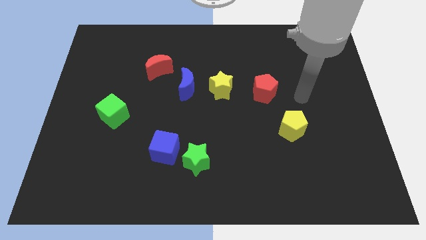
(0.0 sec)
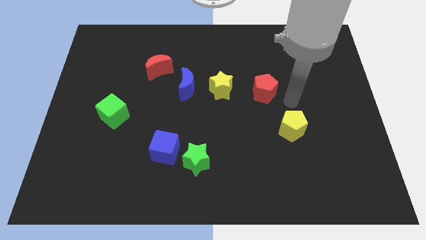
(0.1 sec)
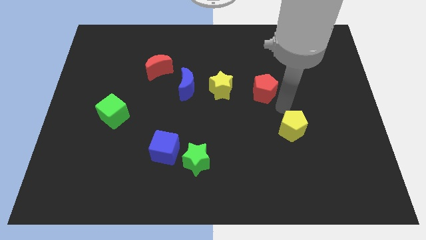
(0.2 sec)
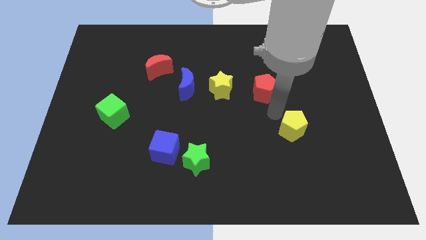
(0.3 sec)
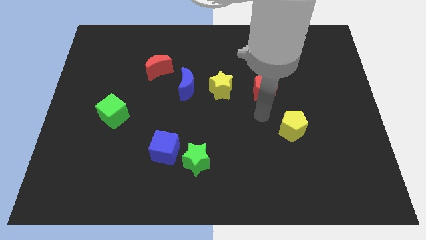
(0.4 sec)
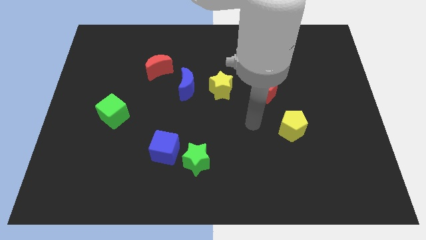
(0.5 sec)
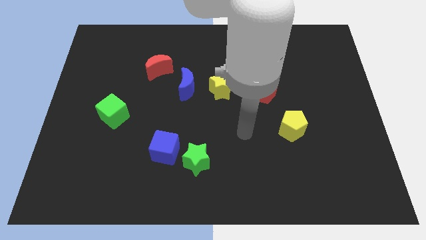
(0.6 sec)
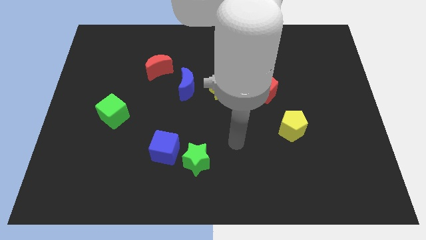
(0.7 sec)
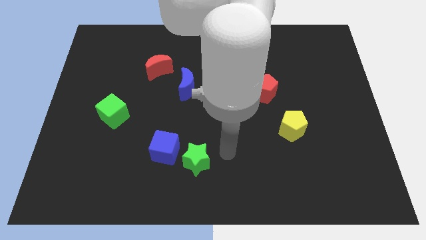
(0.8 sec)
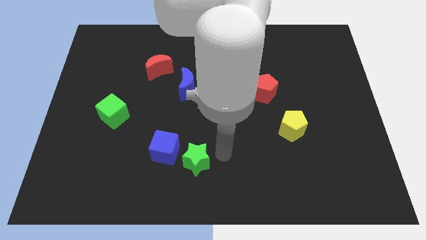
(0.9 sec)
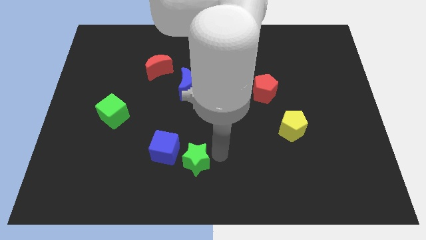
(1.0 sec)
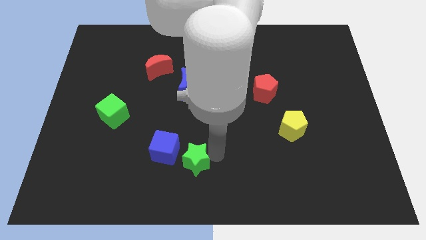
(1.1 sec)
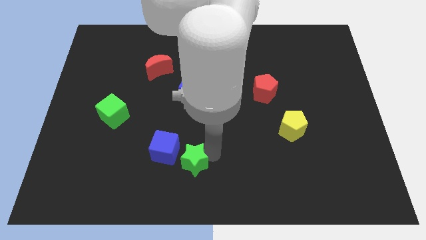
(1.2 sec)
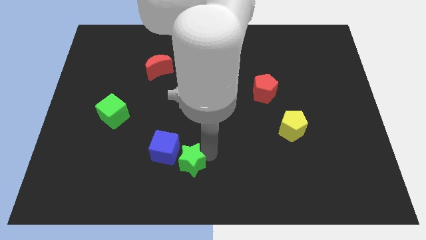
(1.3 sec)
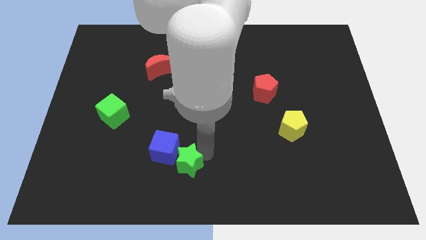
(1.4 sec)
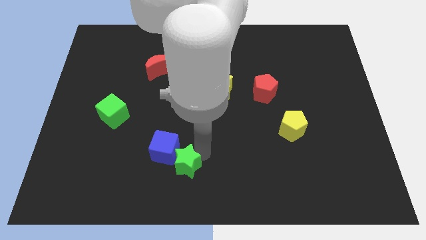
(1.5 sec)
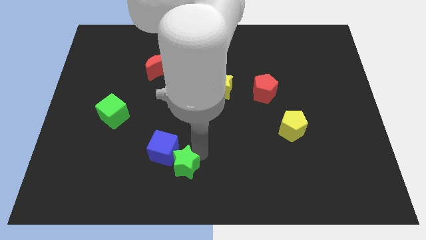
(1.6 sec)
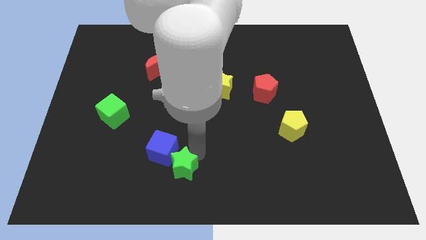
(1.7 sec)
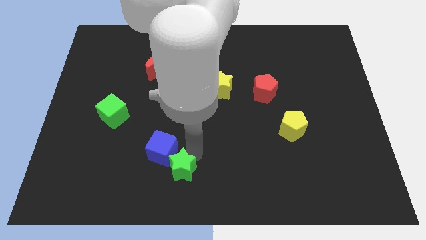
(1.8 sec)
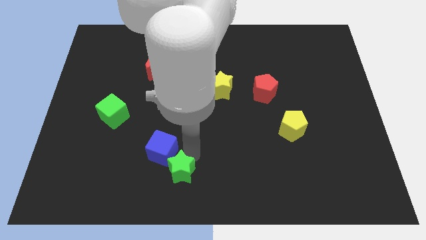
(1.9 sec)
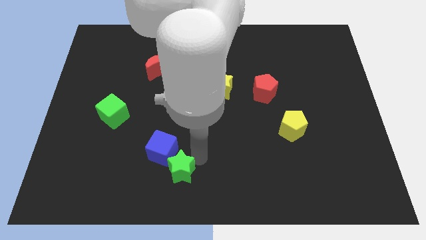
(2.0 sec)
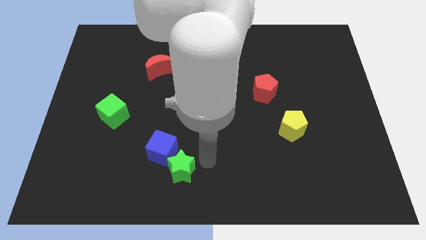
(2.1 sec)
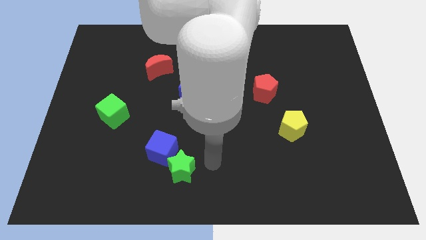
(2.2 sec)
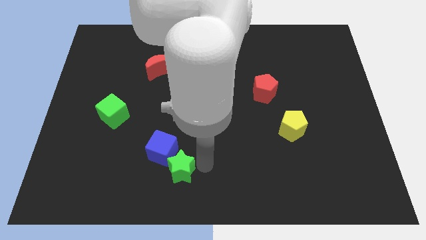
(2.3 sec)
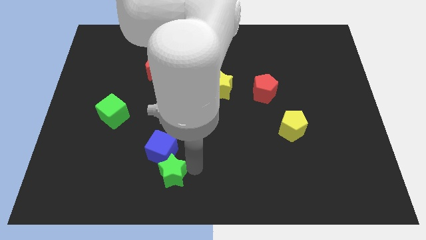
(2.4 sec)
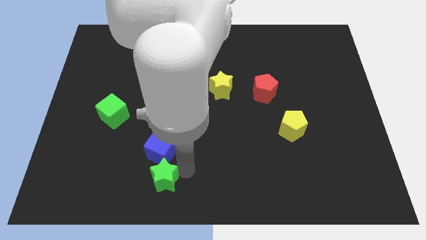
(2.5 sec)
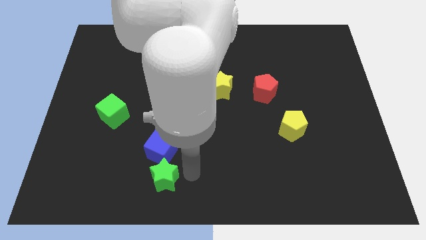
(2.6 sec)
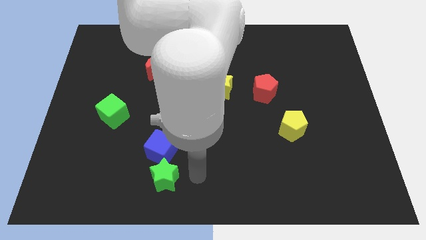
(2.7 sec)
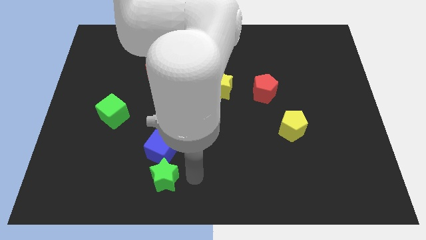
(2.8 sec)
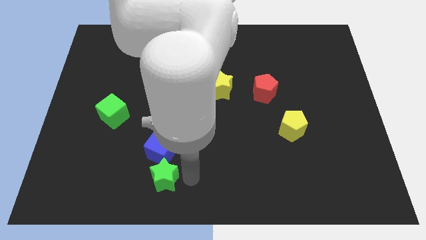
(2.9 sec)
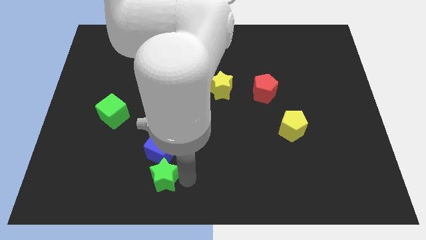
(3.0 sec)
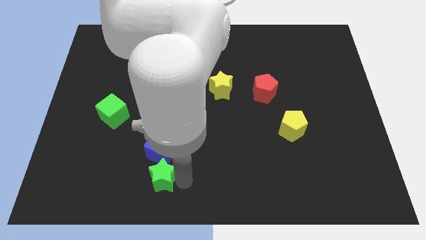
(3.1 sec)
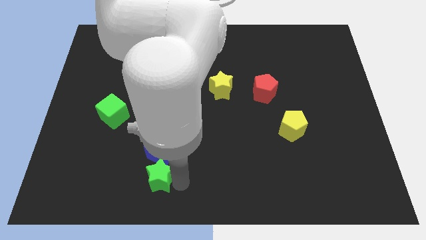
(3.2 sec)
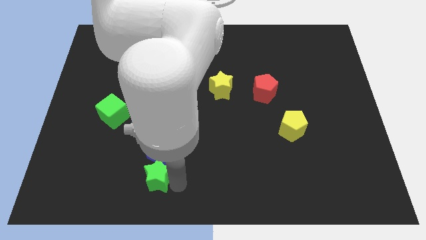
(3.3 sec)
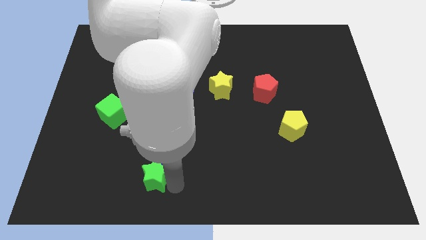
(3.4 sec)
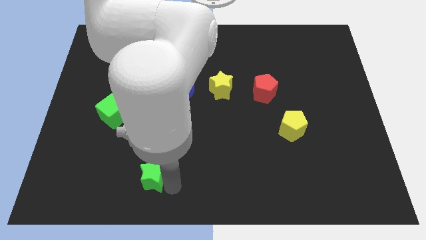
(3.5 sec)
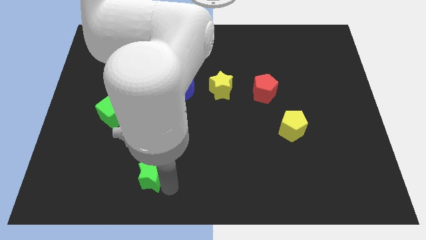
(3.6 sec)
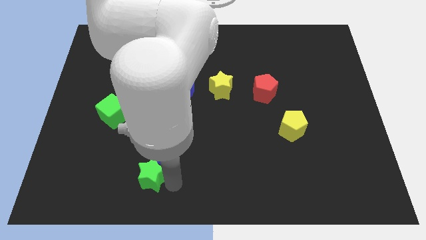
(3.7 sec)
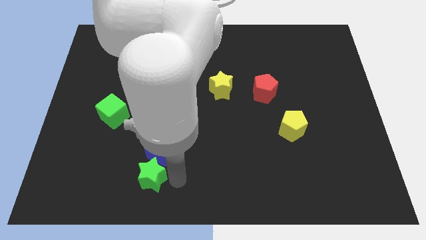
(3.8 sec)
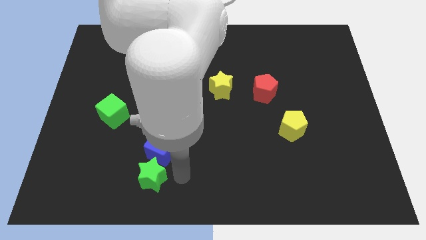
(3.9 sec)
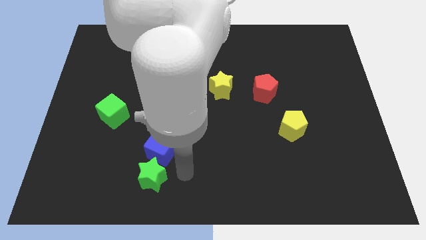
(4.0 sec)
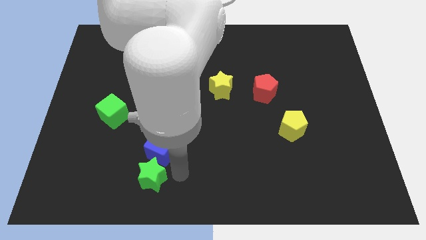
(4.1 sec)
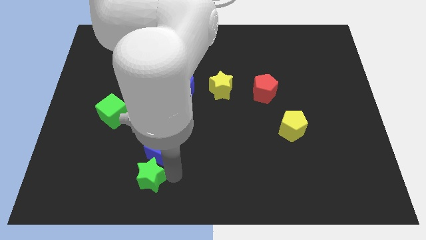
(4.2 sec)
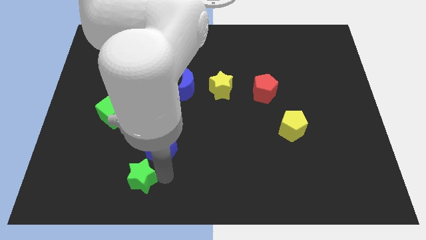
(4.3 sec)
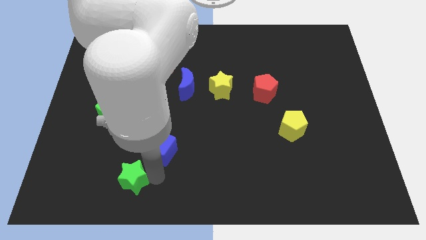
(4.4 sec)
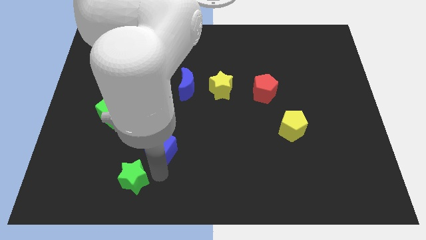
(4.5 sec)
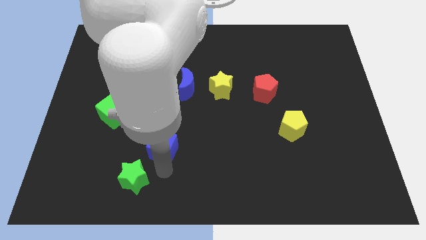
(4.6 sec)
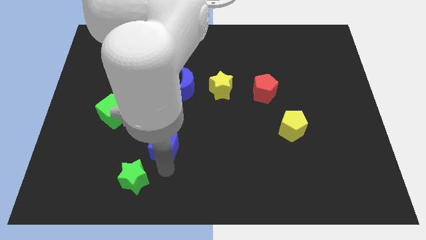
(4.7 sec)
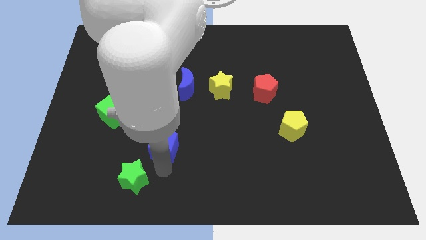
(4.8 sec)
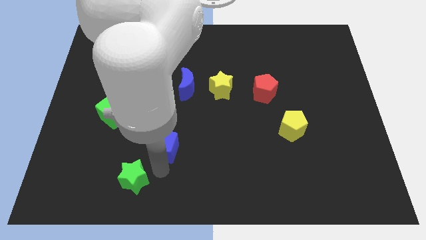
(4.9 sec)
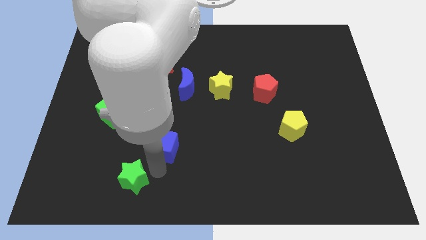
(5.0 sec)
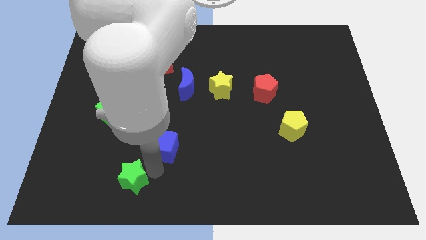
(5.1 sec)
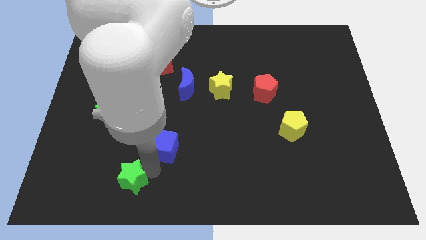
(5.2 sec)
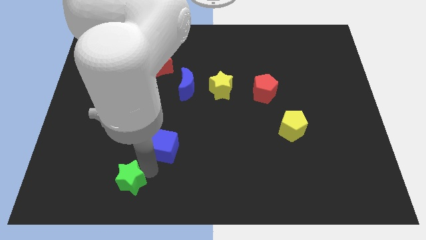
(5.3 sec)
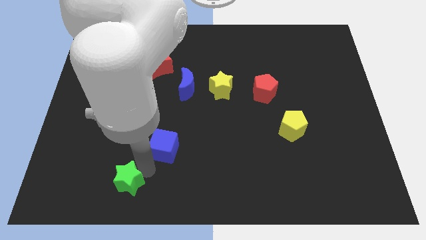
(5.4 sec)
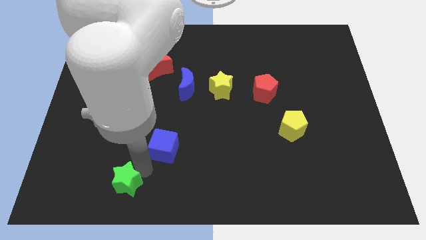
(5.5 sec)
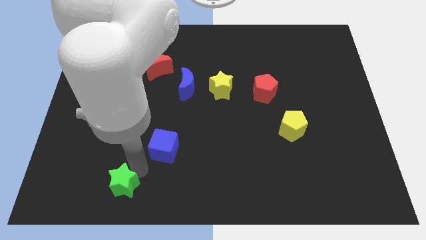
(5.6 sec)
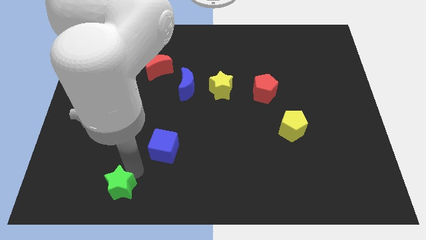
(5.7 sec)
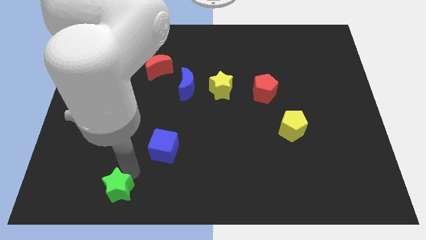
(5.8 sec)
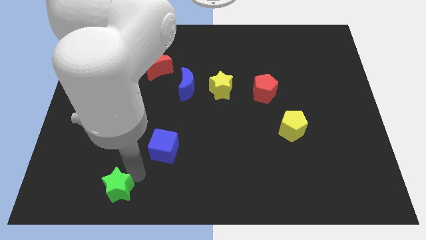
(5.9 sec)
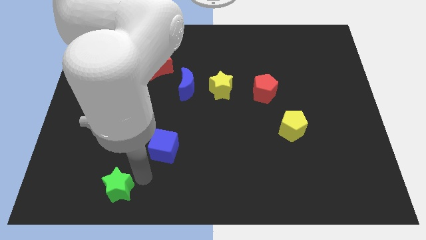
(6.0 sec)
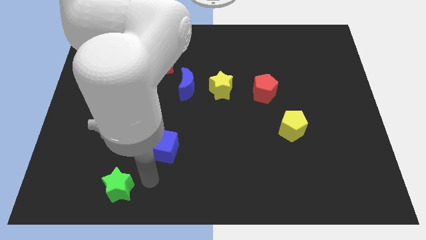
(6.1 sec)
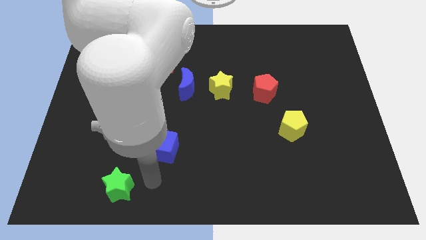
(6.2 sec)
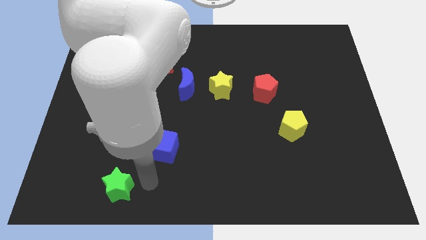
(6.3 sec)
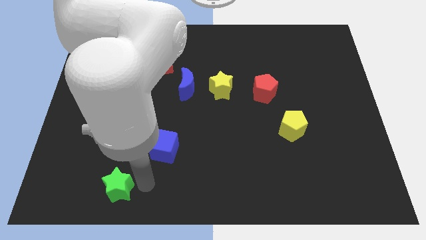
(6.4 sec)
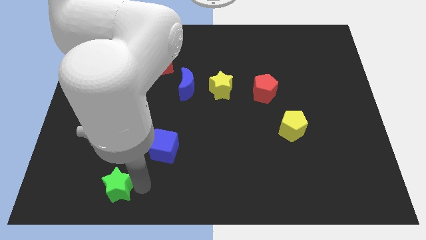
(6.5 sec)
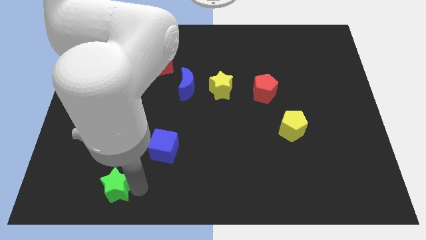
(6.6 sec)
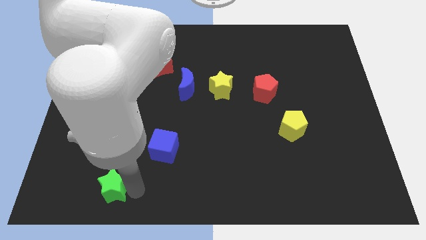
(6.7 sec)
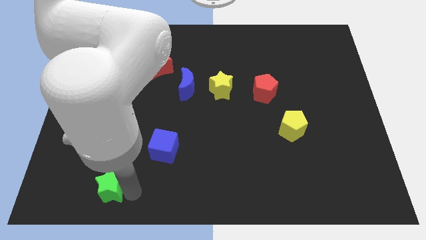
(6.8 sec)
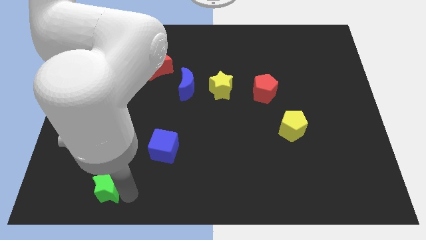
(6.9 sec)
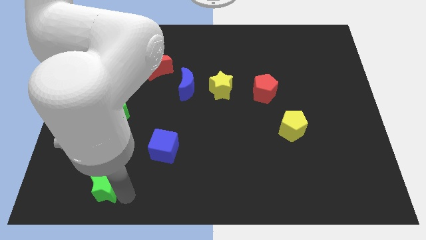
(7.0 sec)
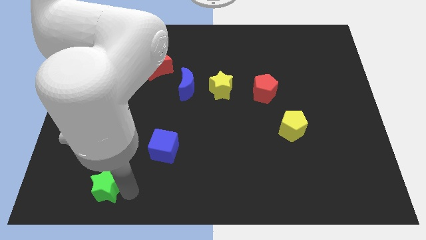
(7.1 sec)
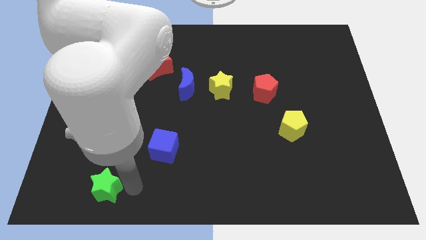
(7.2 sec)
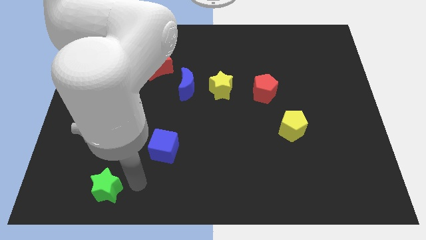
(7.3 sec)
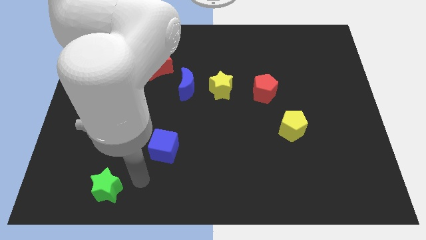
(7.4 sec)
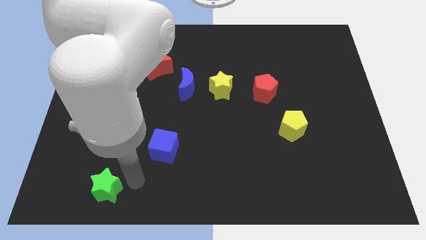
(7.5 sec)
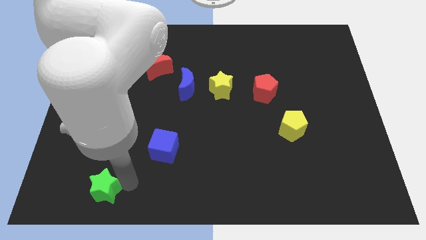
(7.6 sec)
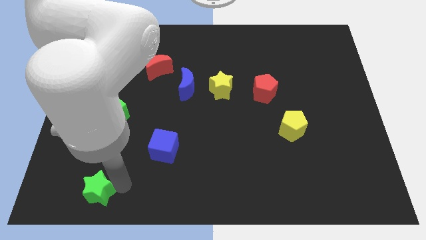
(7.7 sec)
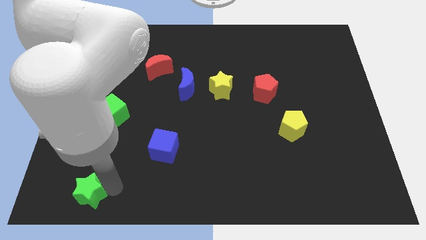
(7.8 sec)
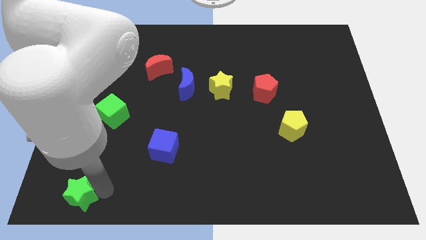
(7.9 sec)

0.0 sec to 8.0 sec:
move the green star to the bottom left corner
